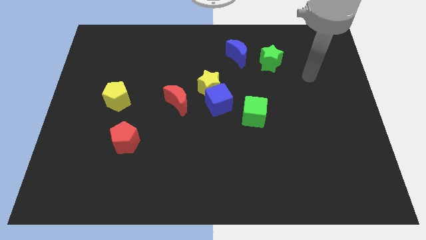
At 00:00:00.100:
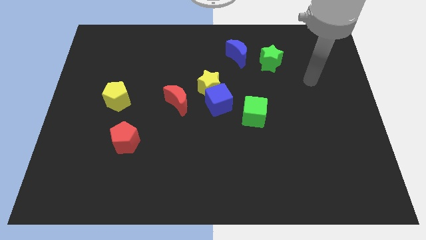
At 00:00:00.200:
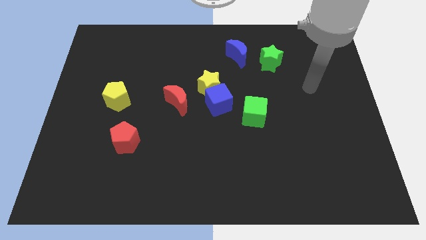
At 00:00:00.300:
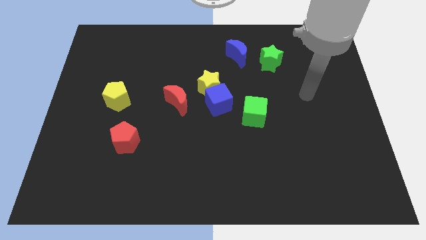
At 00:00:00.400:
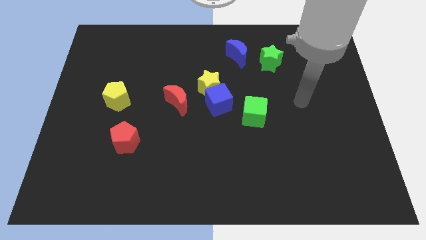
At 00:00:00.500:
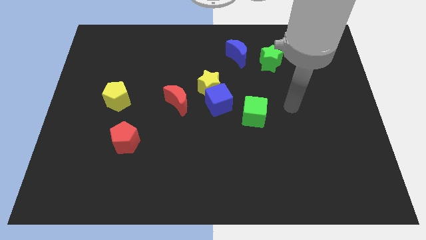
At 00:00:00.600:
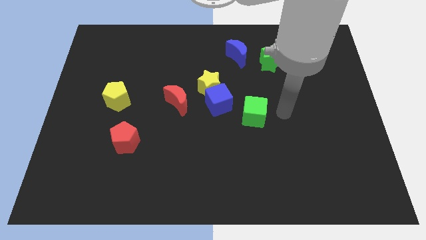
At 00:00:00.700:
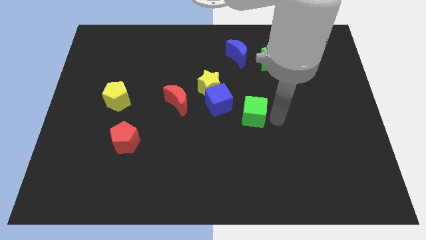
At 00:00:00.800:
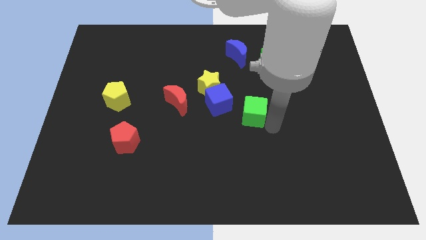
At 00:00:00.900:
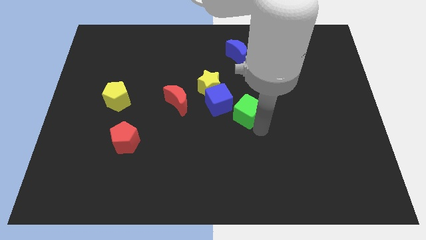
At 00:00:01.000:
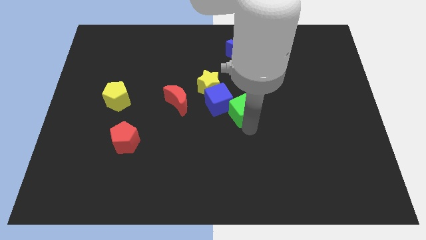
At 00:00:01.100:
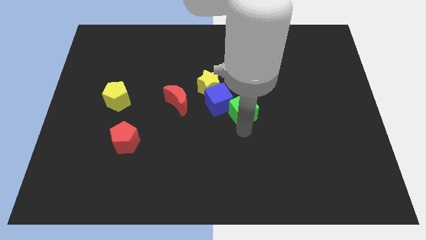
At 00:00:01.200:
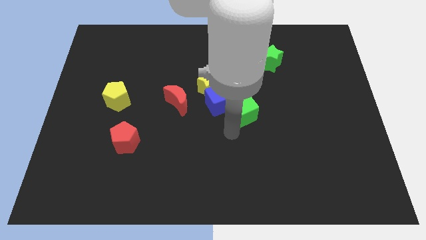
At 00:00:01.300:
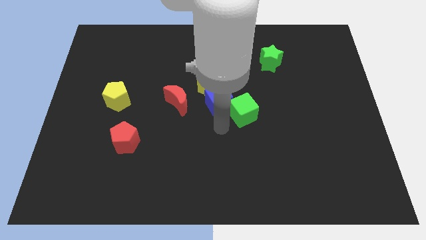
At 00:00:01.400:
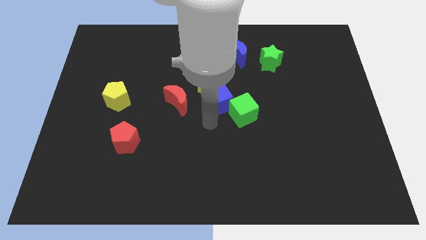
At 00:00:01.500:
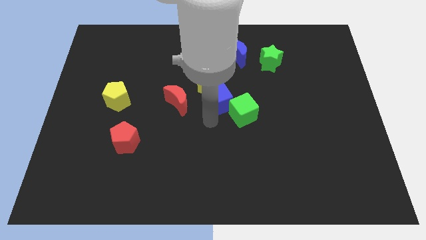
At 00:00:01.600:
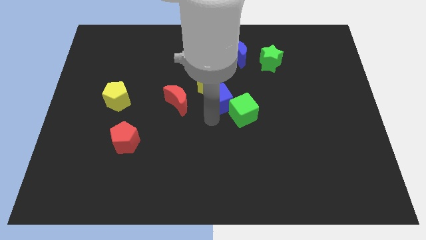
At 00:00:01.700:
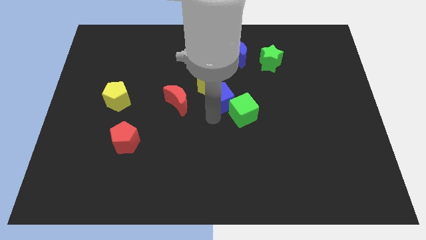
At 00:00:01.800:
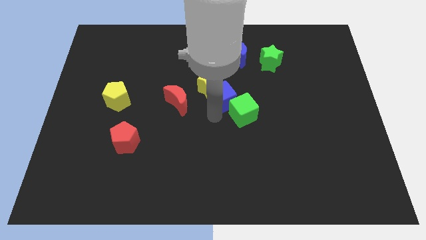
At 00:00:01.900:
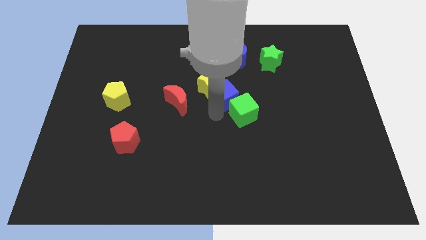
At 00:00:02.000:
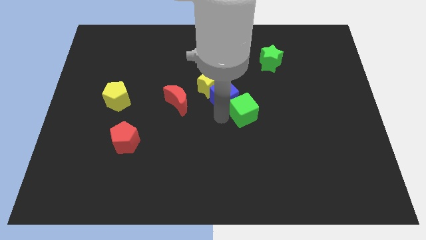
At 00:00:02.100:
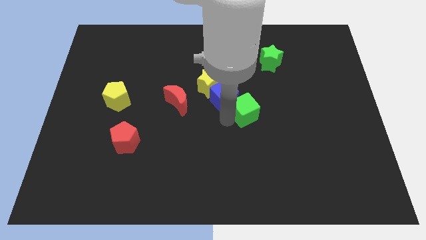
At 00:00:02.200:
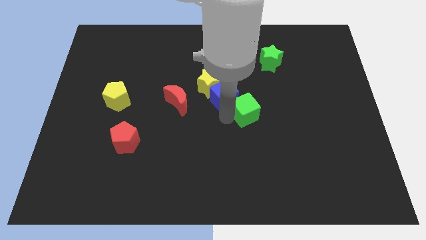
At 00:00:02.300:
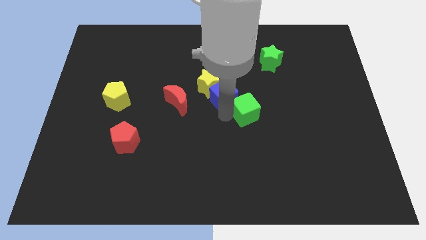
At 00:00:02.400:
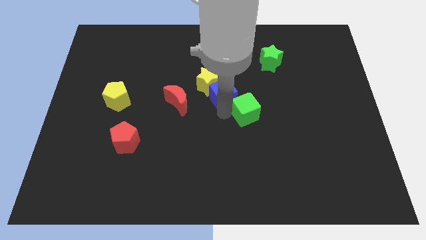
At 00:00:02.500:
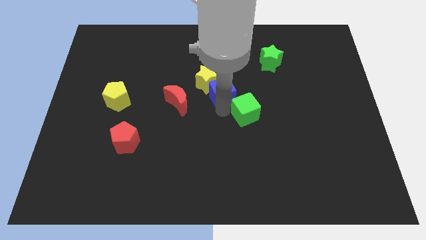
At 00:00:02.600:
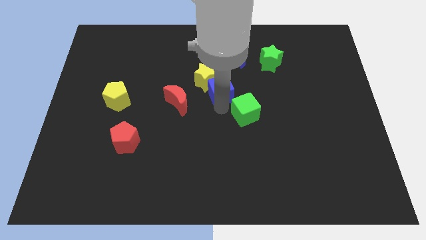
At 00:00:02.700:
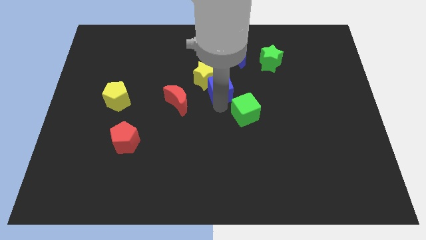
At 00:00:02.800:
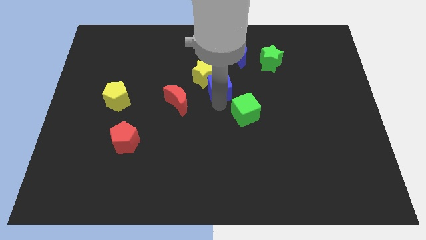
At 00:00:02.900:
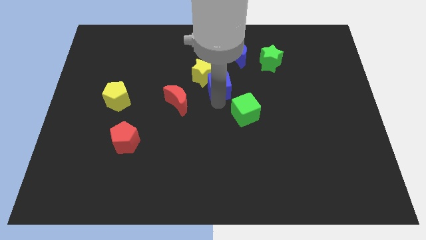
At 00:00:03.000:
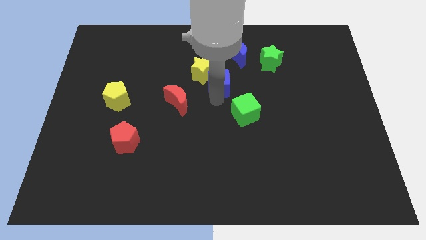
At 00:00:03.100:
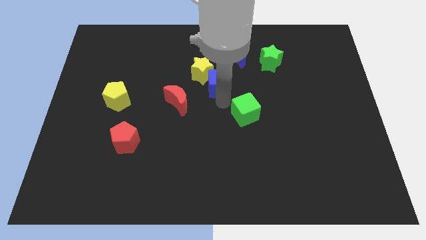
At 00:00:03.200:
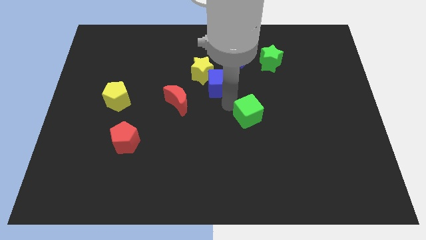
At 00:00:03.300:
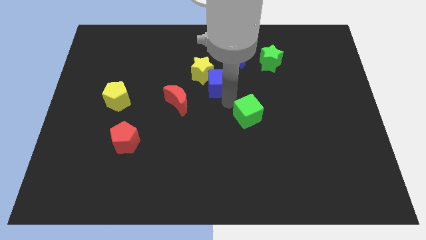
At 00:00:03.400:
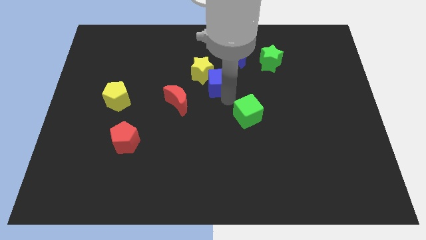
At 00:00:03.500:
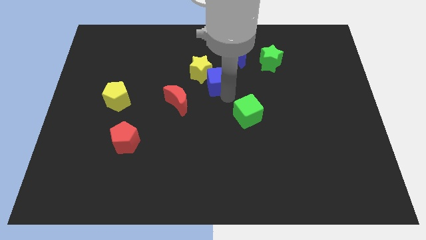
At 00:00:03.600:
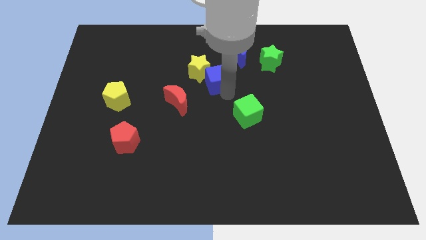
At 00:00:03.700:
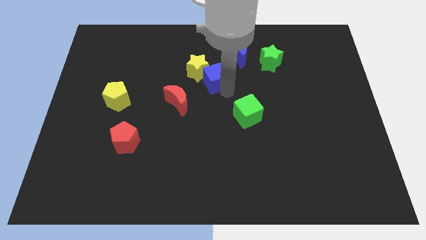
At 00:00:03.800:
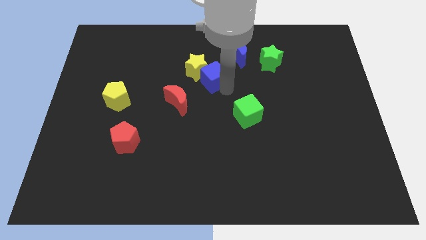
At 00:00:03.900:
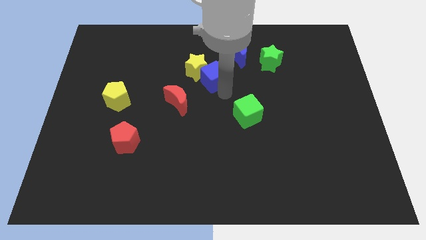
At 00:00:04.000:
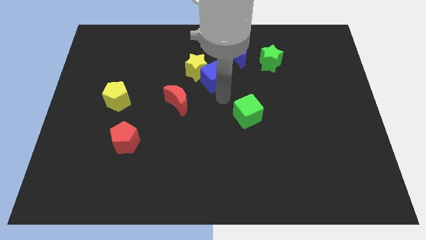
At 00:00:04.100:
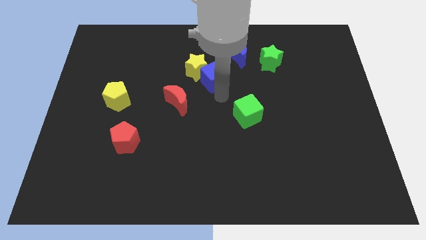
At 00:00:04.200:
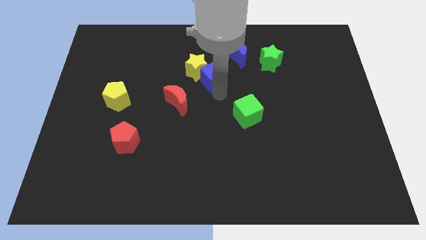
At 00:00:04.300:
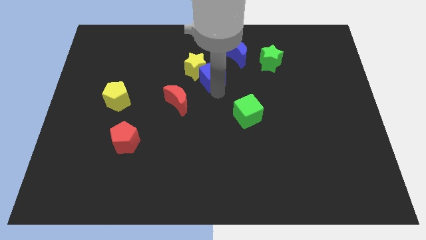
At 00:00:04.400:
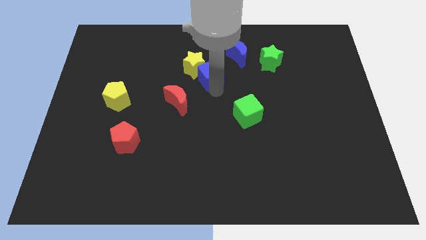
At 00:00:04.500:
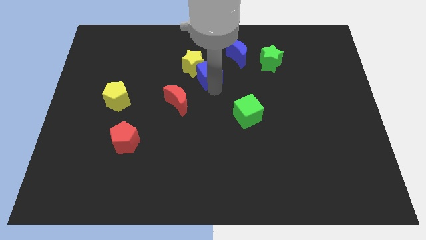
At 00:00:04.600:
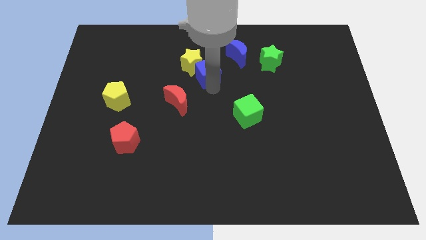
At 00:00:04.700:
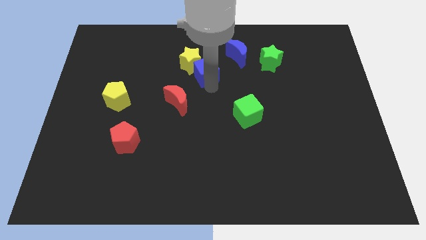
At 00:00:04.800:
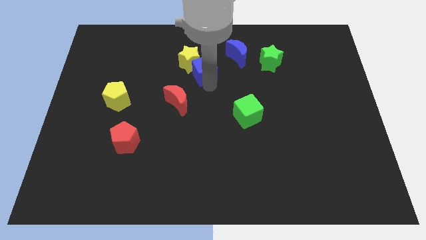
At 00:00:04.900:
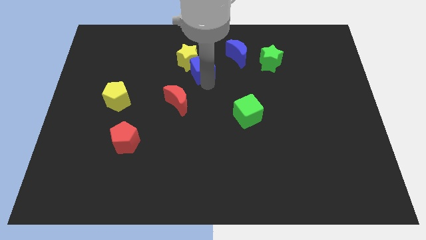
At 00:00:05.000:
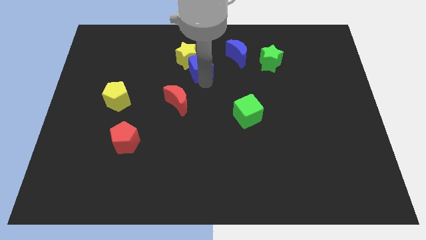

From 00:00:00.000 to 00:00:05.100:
put the blue cube to the top side of the red moon
